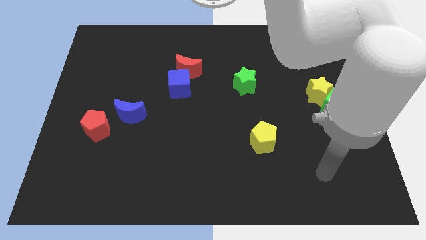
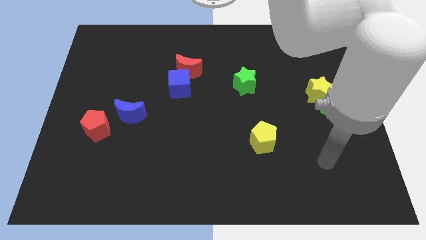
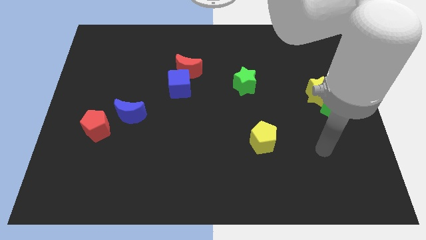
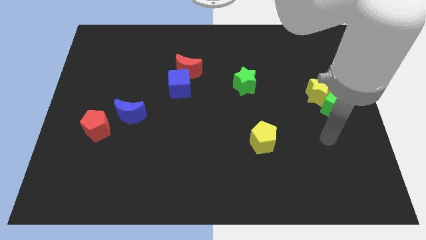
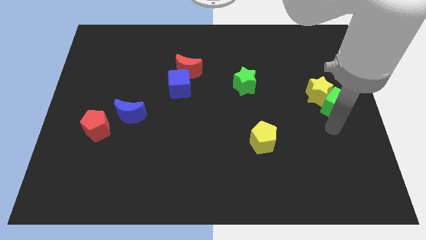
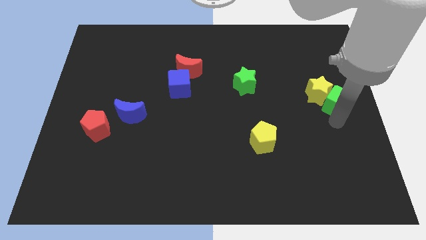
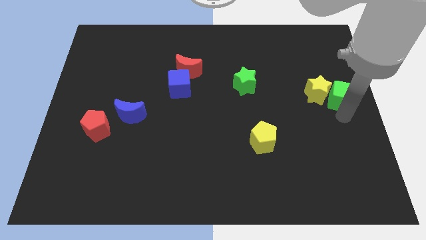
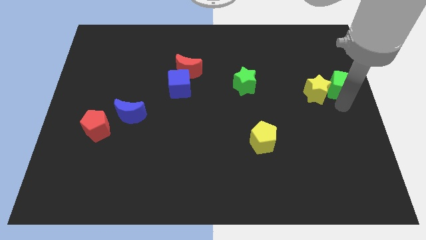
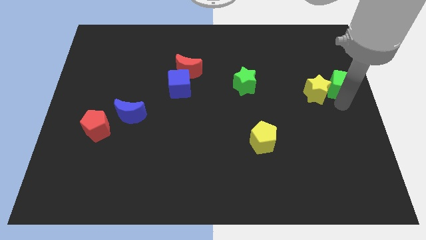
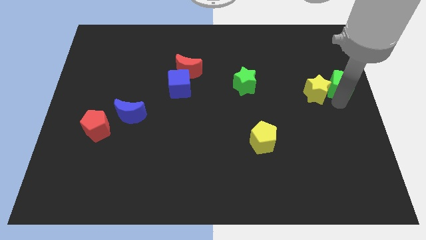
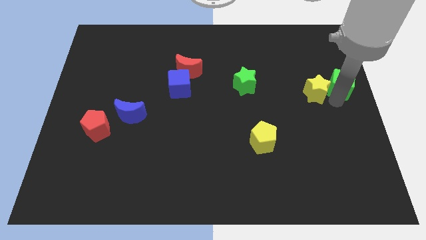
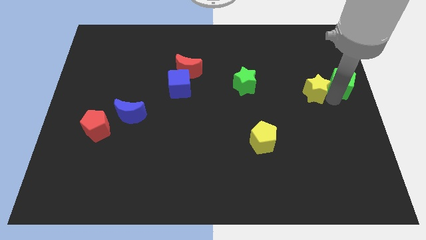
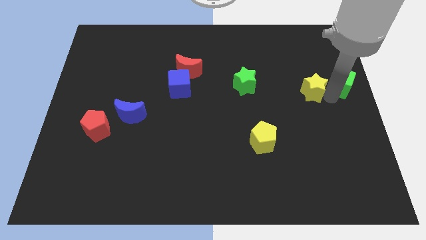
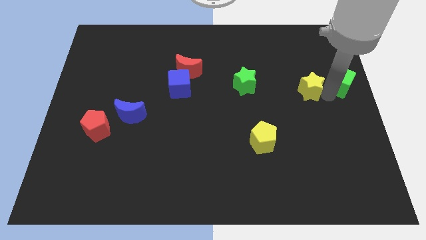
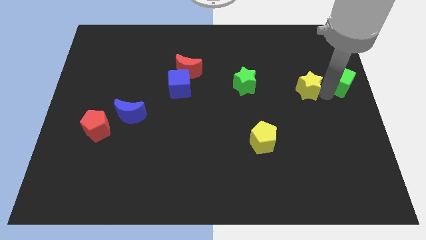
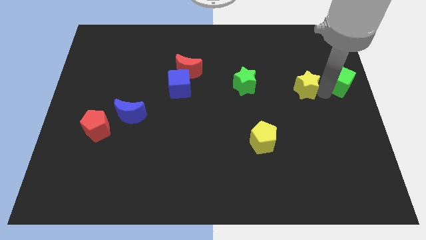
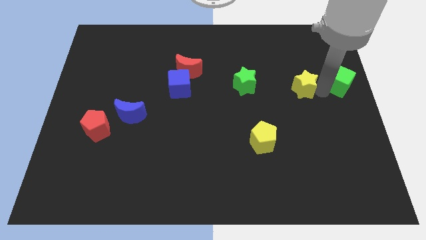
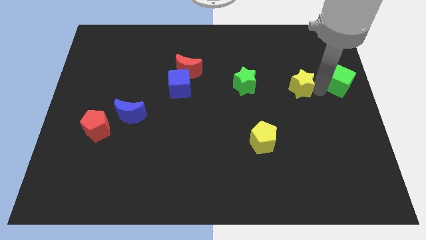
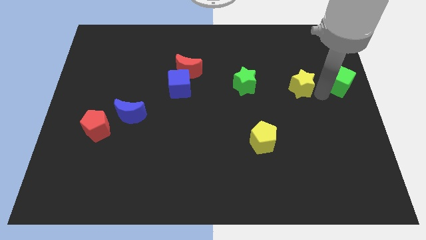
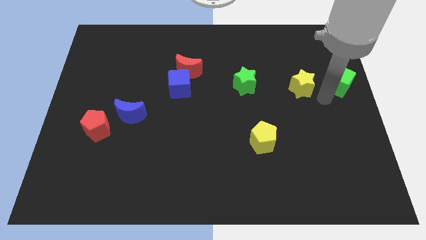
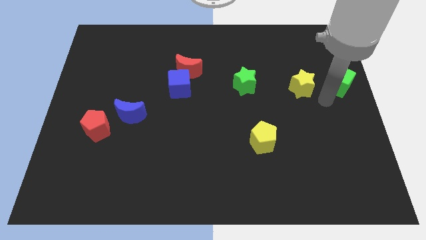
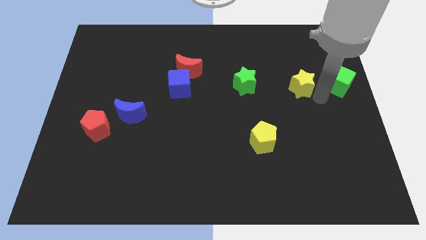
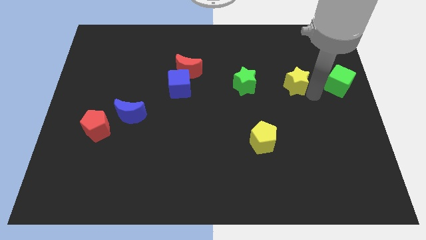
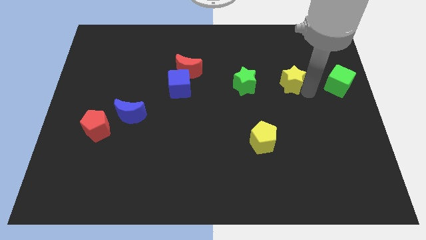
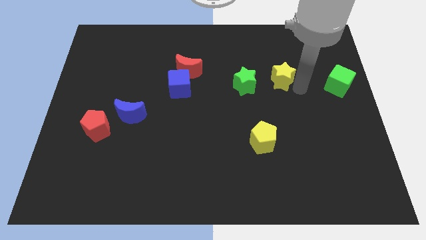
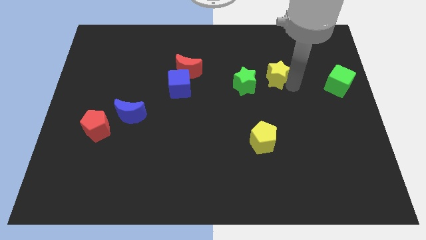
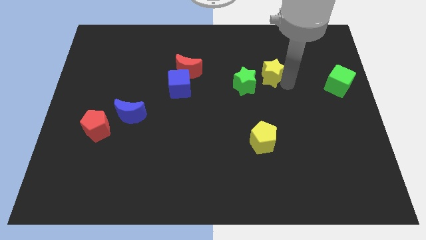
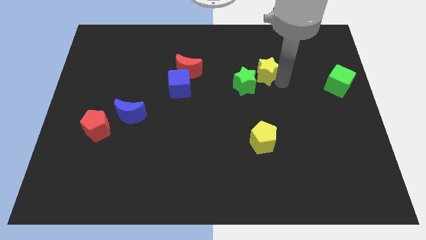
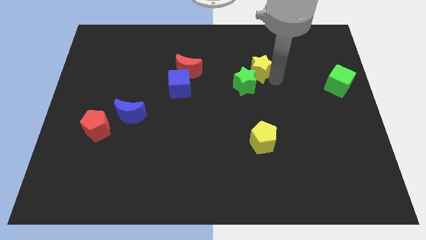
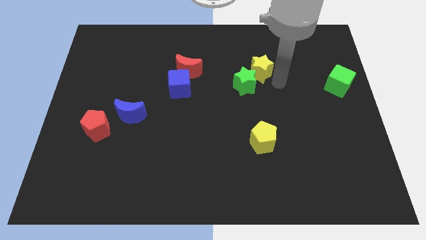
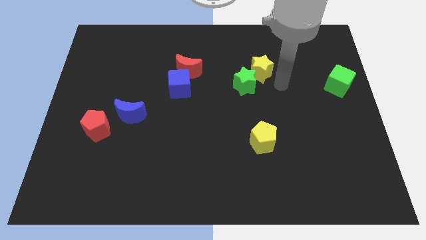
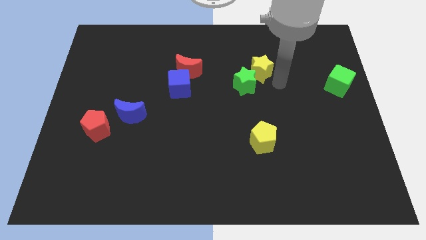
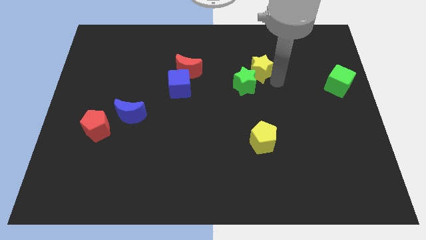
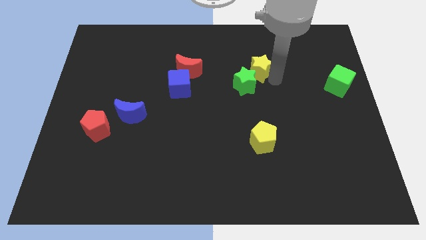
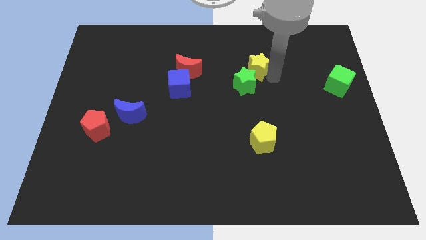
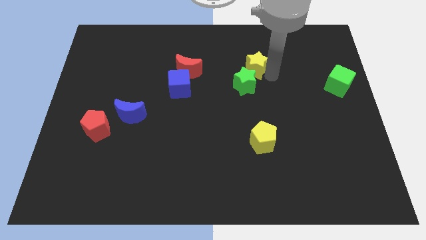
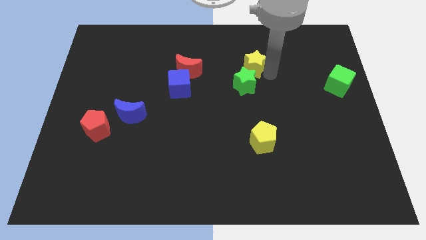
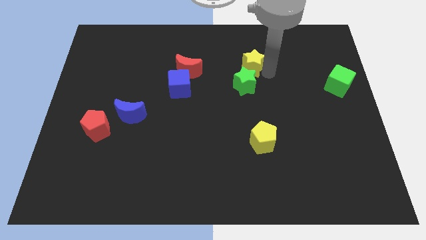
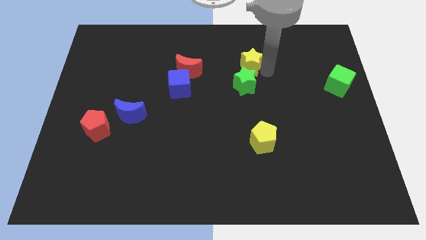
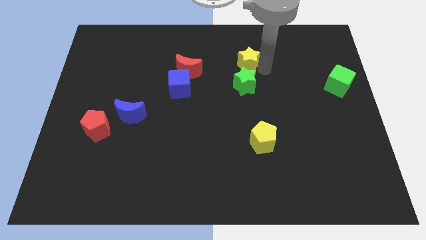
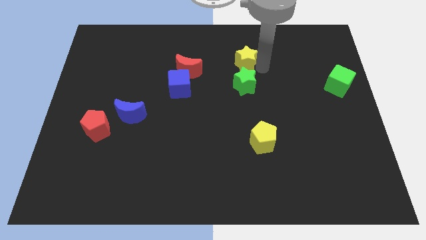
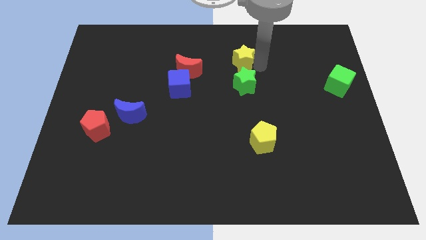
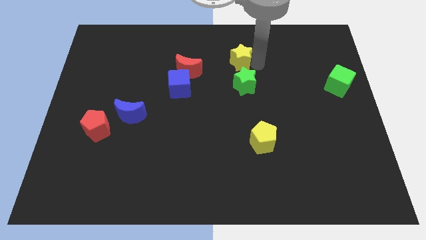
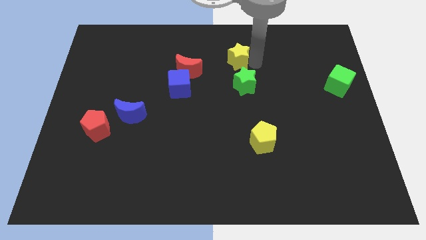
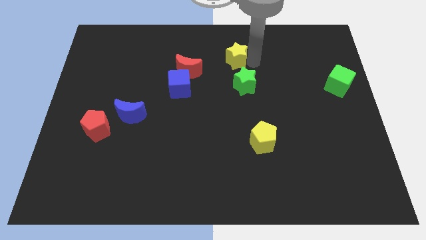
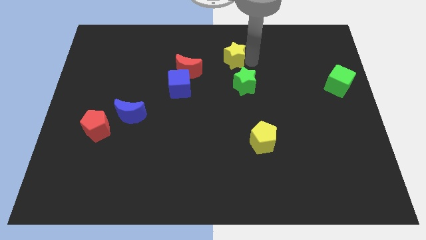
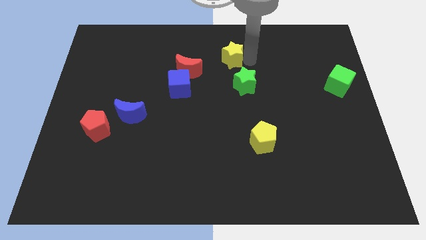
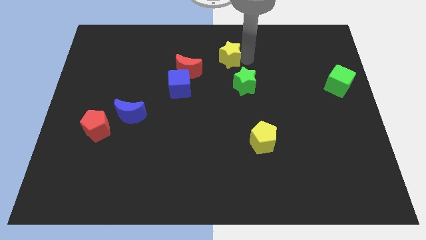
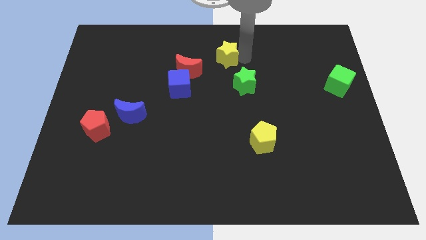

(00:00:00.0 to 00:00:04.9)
slide the yellow star to the top right side of the red moon

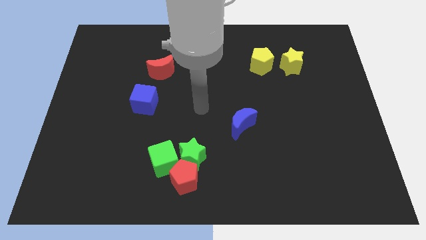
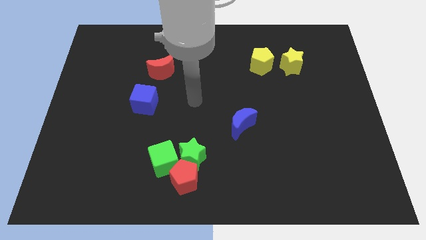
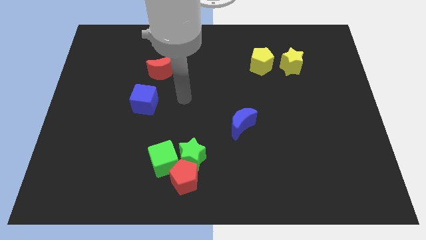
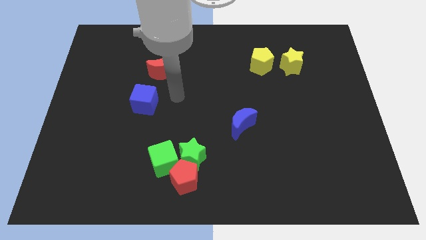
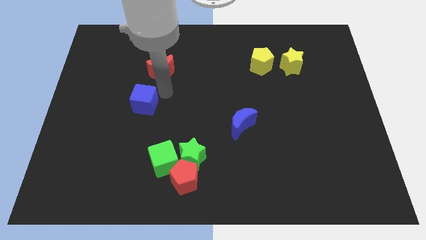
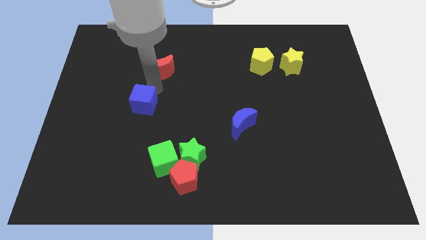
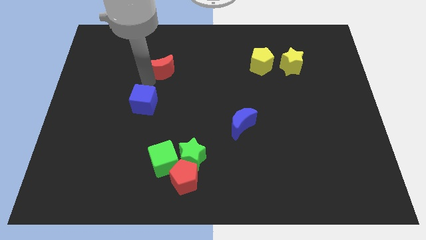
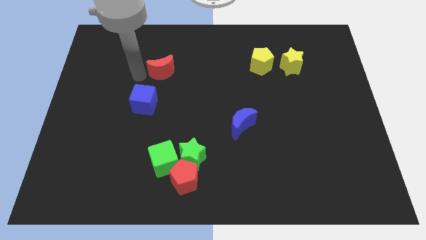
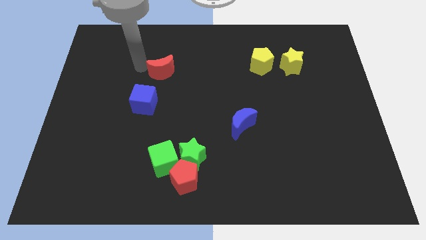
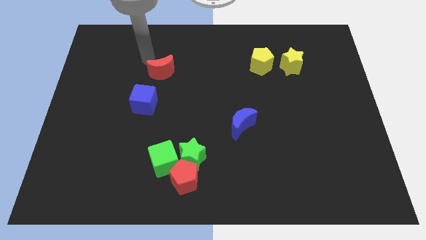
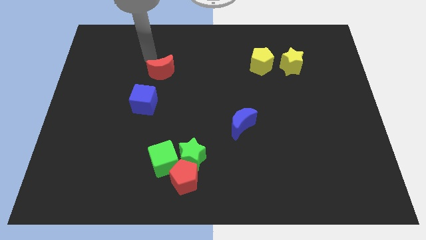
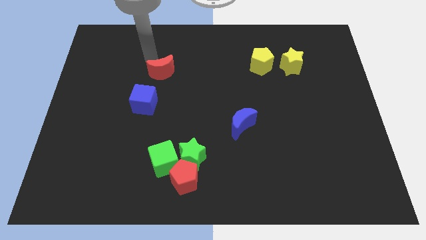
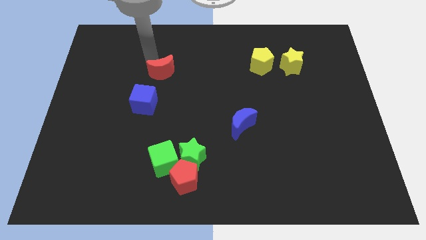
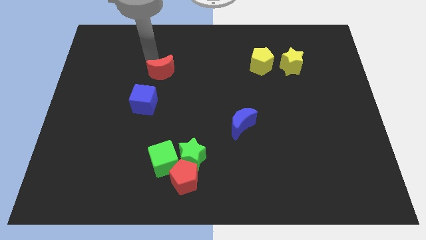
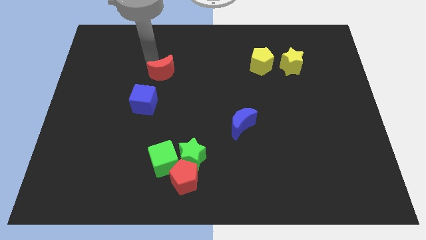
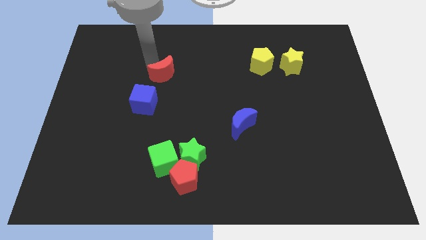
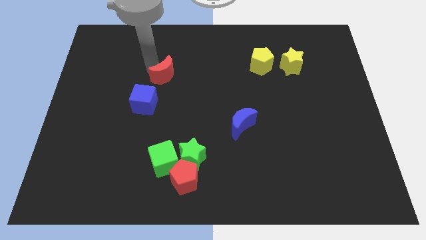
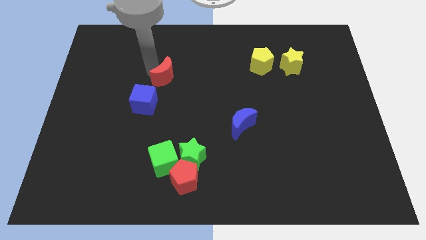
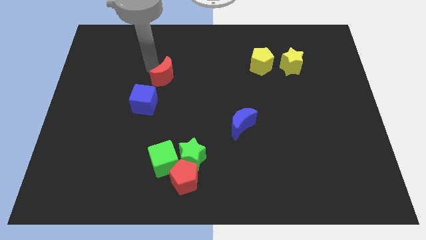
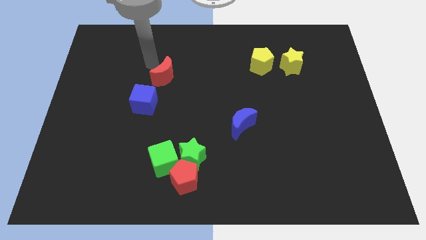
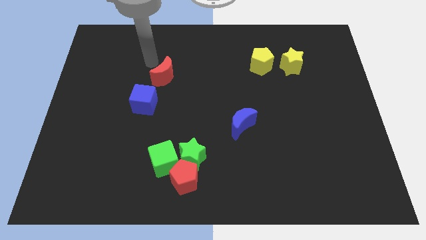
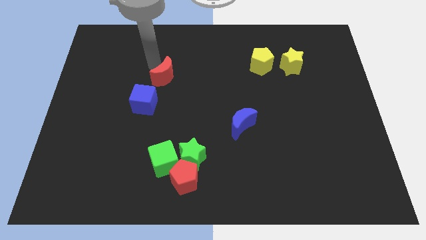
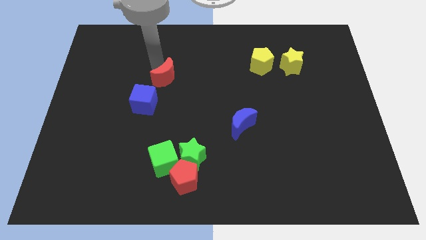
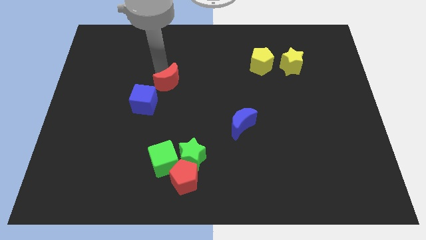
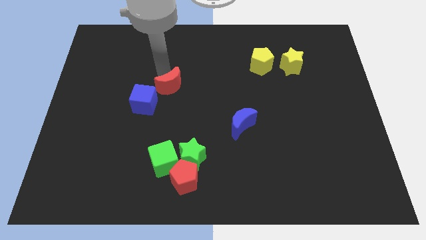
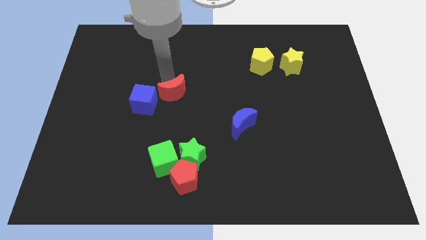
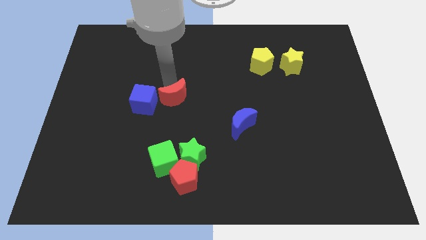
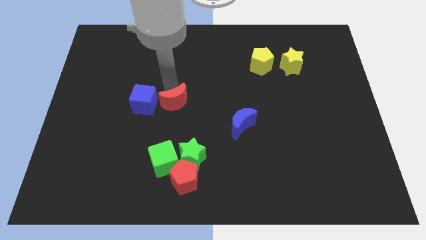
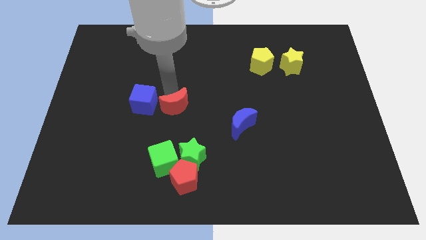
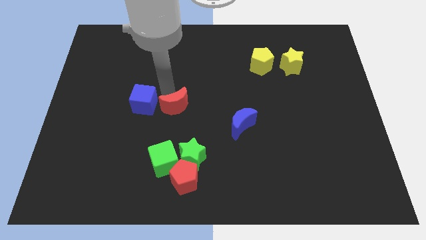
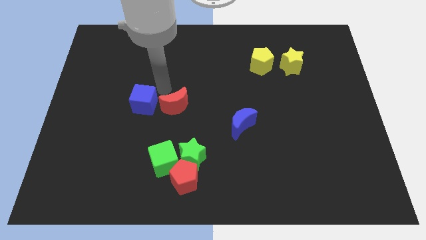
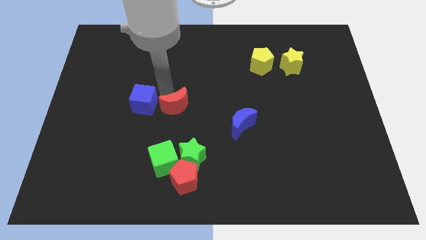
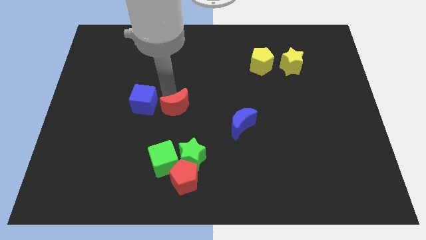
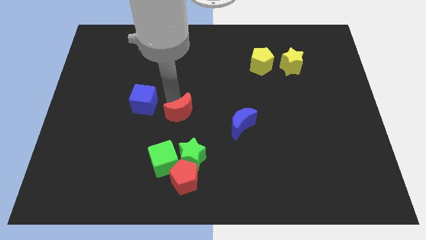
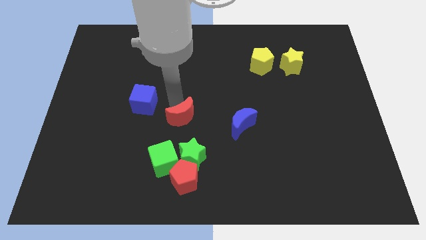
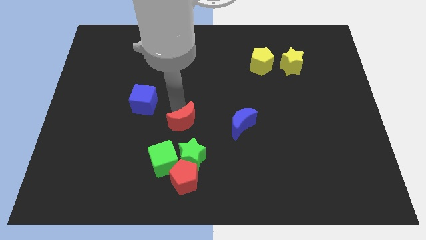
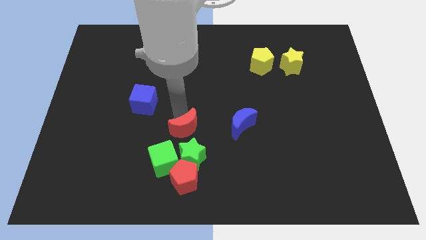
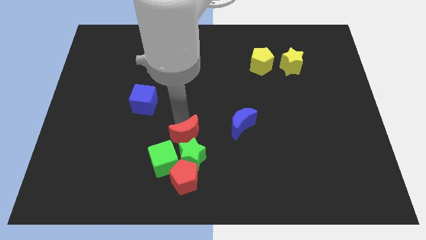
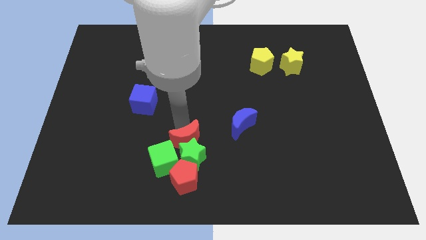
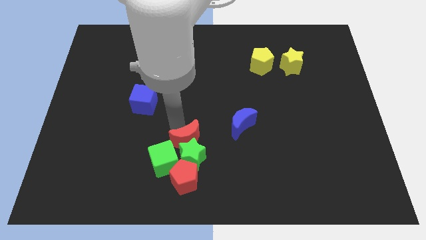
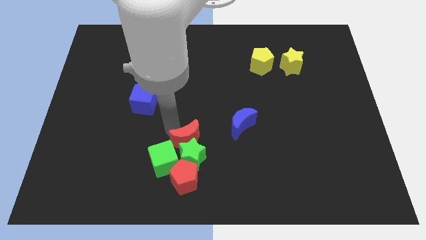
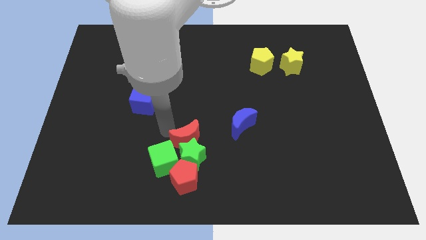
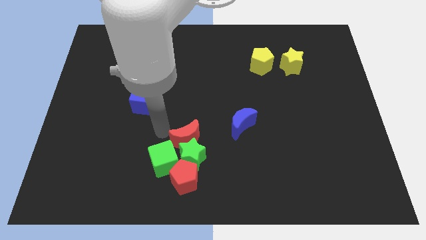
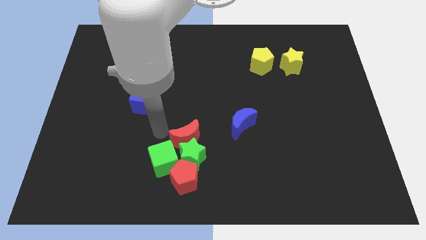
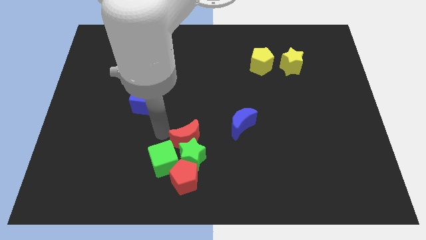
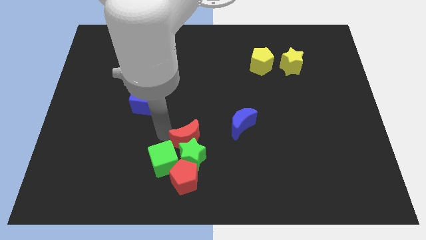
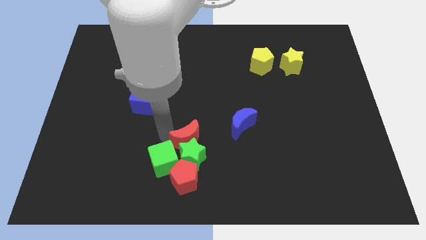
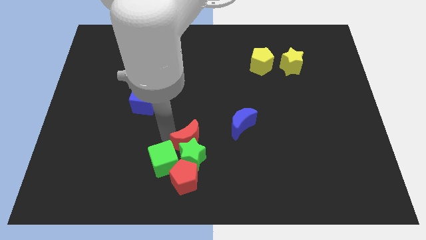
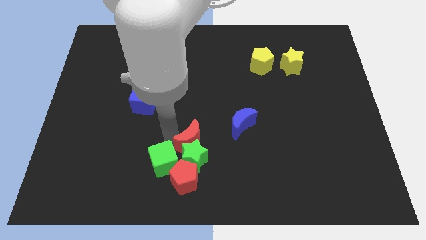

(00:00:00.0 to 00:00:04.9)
put the red moon to the right of the green cube
